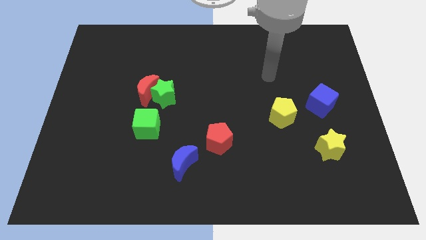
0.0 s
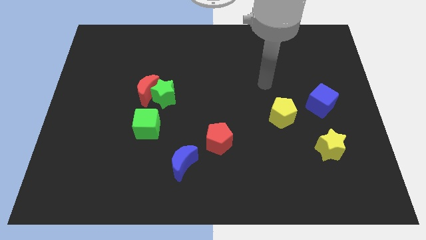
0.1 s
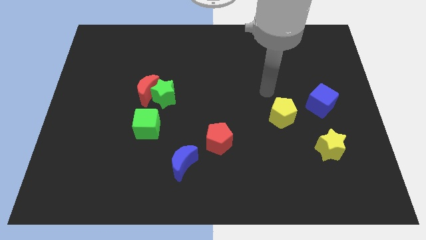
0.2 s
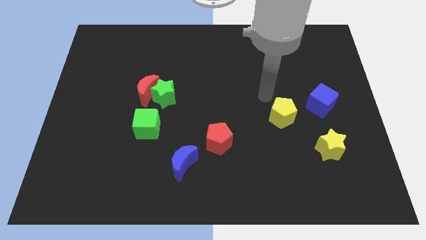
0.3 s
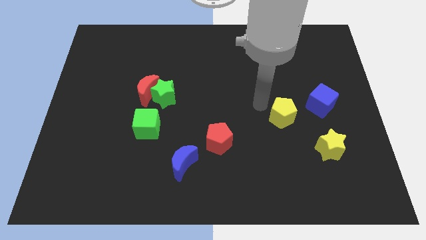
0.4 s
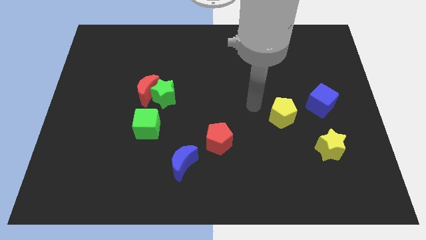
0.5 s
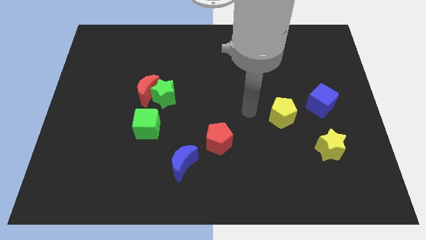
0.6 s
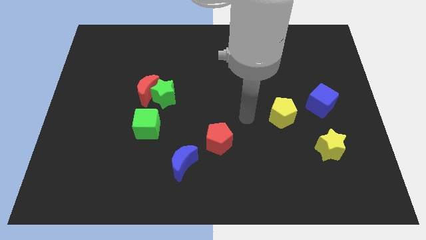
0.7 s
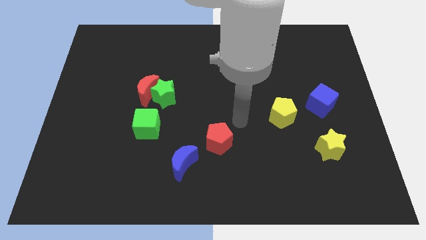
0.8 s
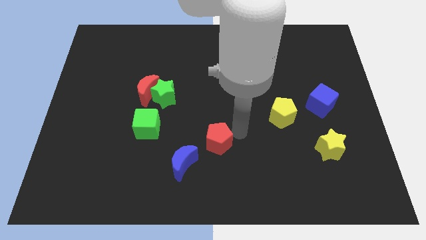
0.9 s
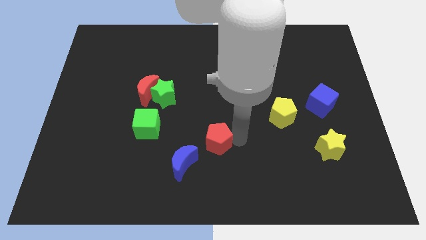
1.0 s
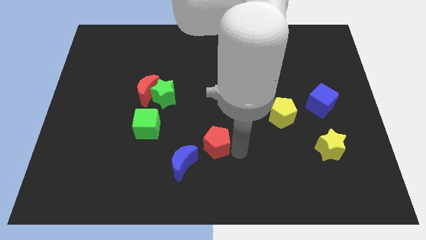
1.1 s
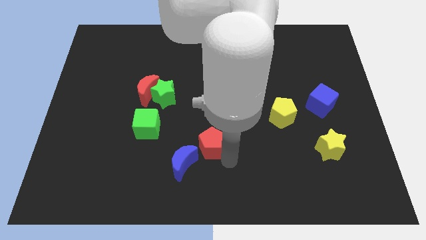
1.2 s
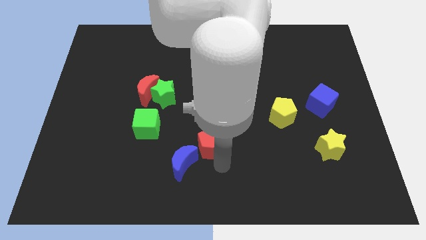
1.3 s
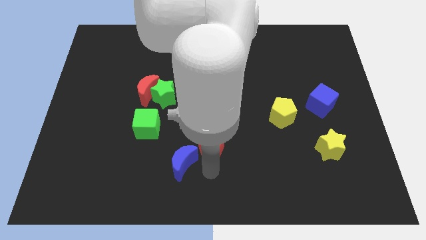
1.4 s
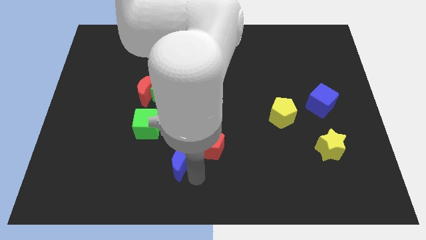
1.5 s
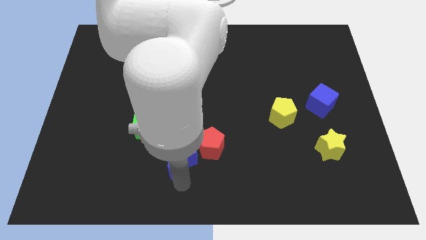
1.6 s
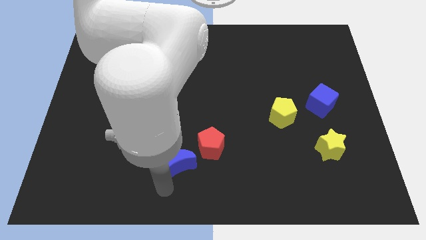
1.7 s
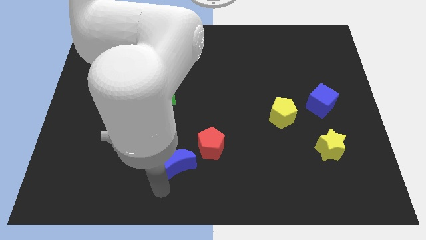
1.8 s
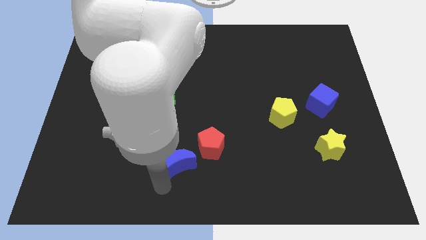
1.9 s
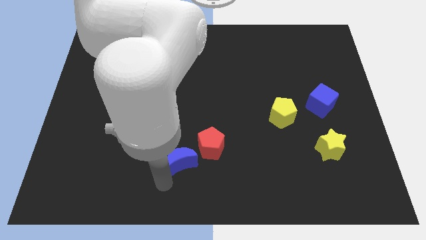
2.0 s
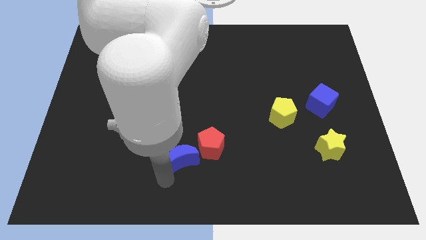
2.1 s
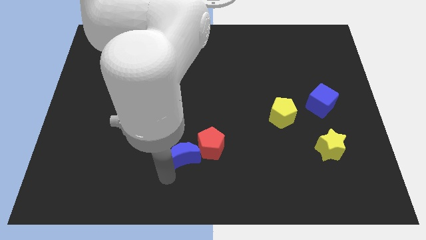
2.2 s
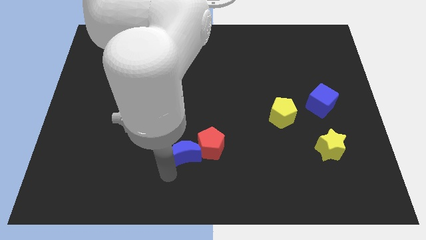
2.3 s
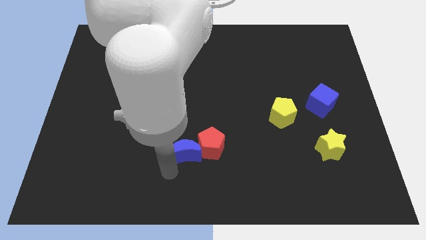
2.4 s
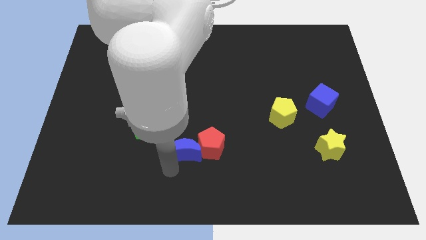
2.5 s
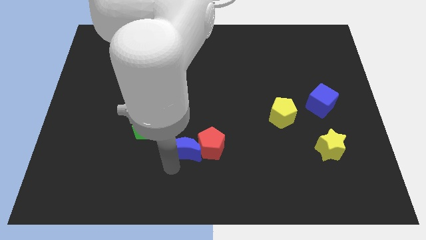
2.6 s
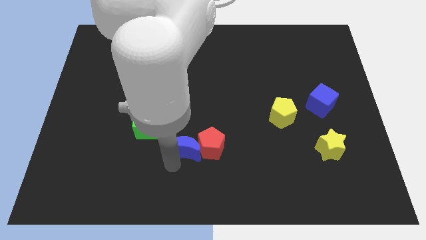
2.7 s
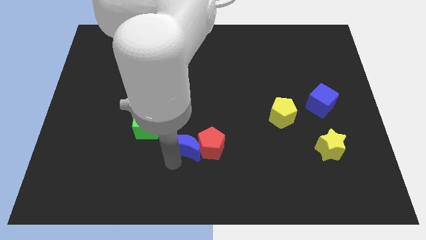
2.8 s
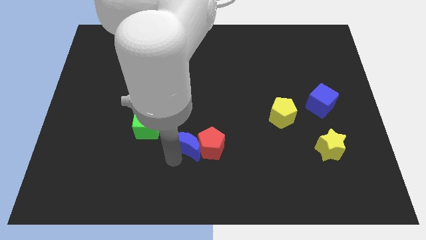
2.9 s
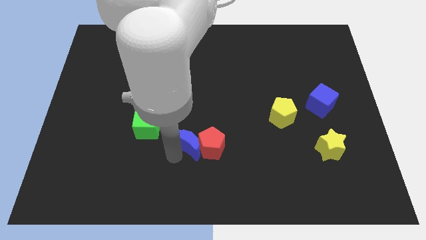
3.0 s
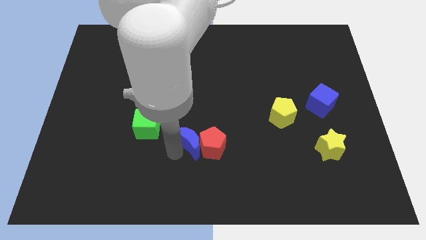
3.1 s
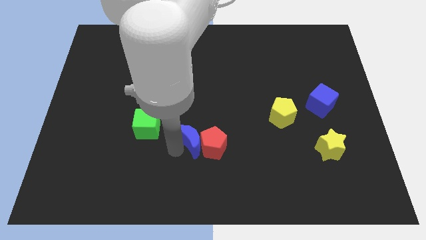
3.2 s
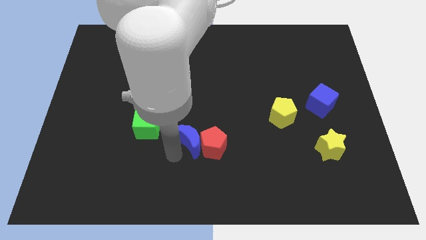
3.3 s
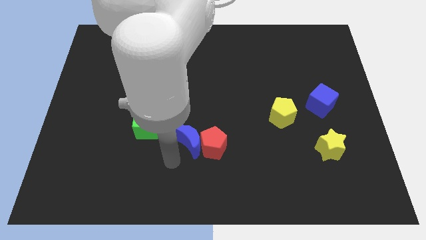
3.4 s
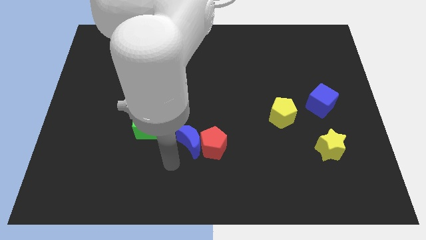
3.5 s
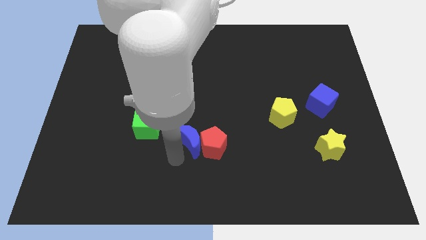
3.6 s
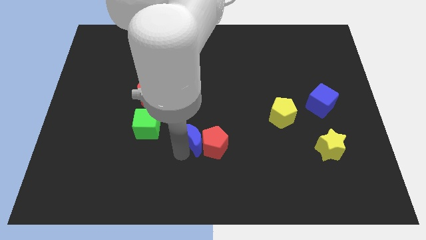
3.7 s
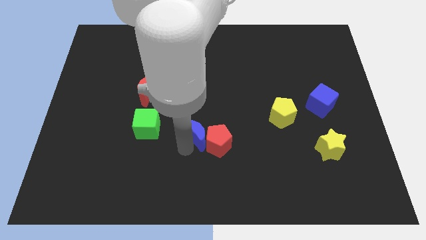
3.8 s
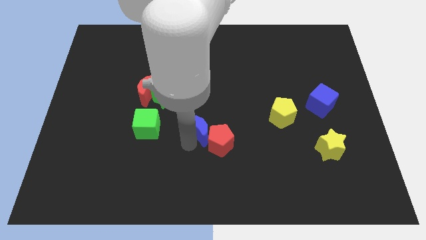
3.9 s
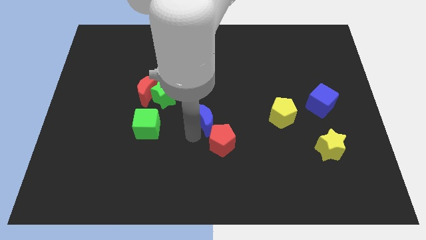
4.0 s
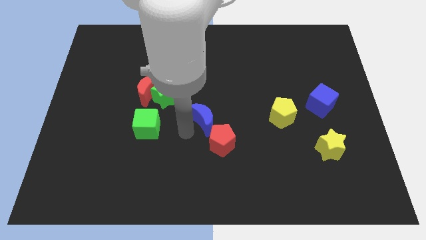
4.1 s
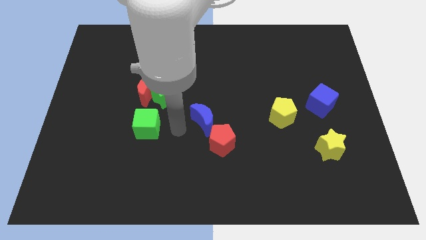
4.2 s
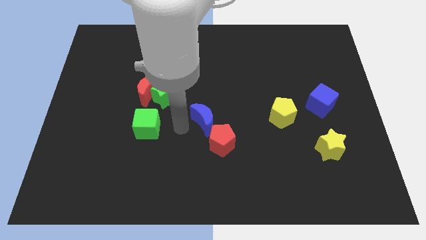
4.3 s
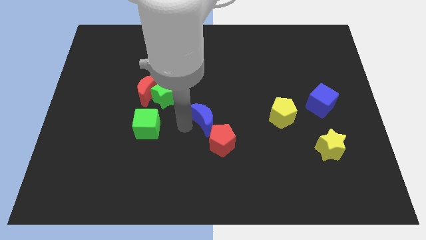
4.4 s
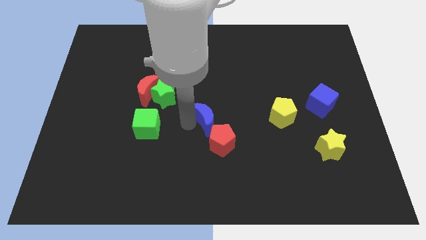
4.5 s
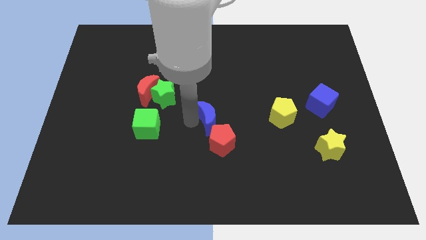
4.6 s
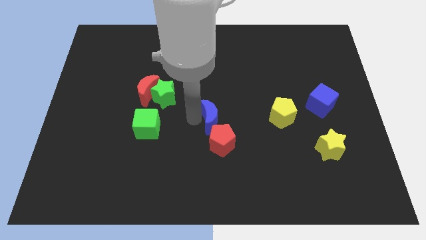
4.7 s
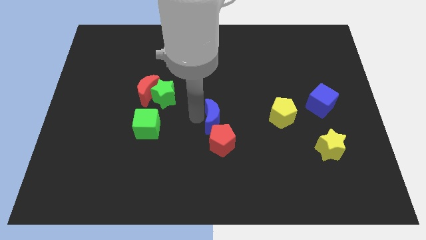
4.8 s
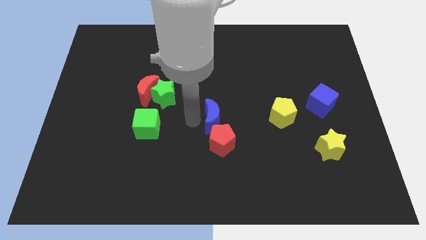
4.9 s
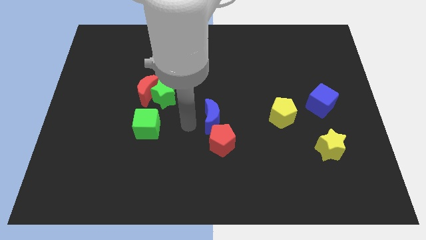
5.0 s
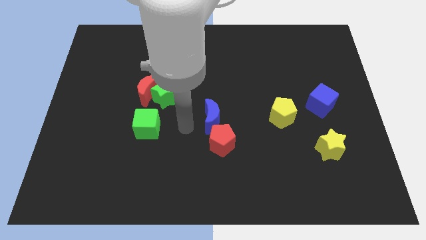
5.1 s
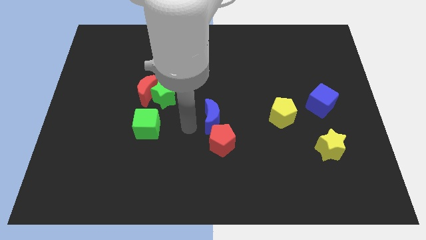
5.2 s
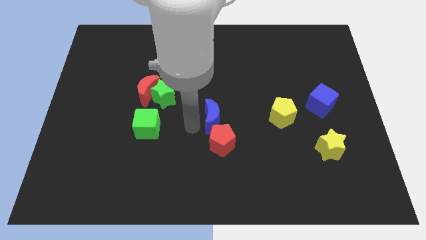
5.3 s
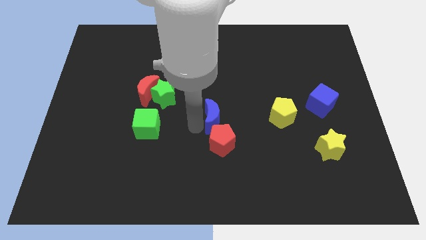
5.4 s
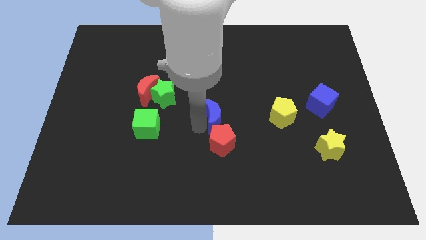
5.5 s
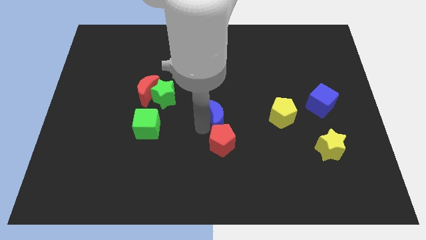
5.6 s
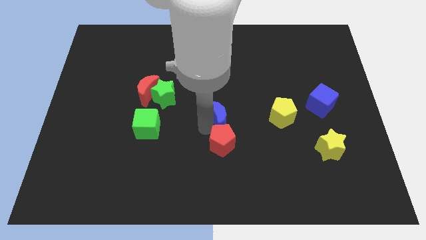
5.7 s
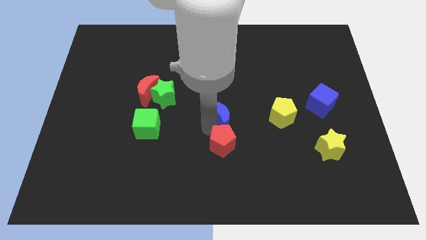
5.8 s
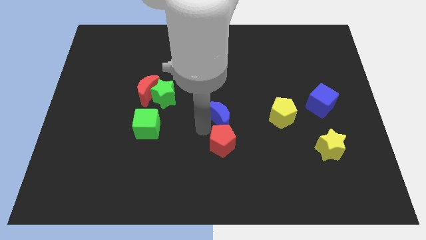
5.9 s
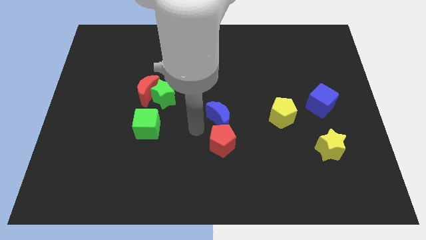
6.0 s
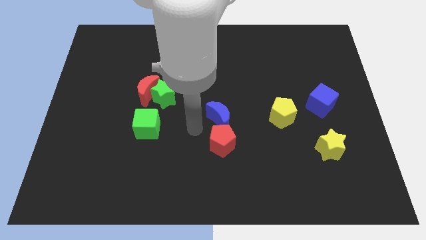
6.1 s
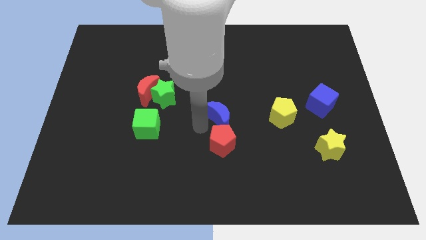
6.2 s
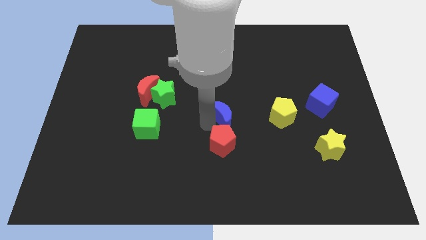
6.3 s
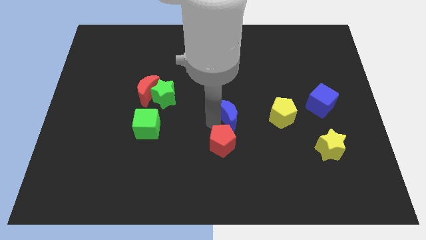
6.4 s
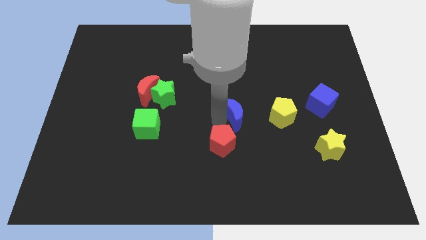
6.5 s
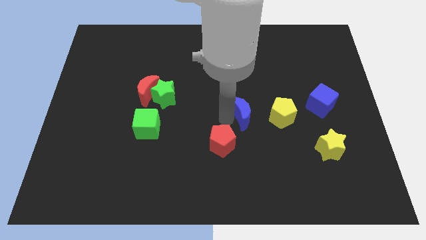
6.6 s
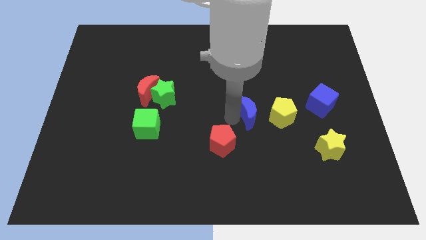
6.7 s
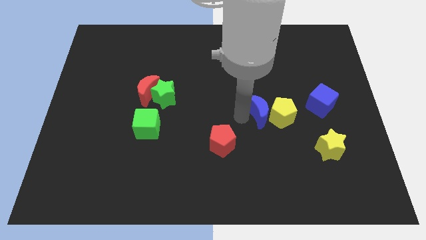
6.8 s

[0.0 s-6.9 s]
put the blue moon to the left of the blue cube

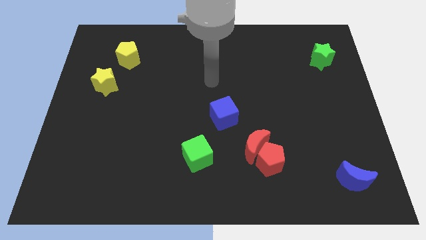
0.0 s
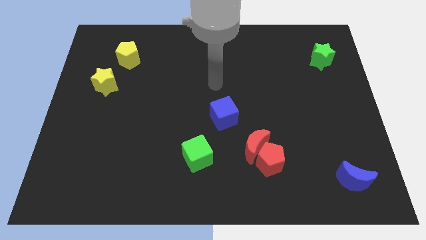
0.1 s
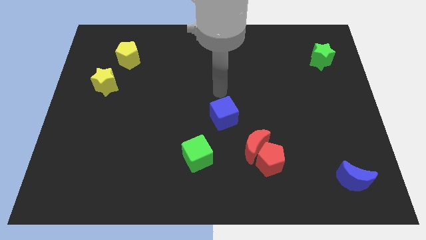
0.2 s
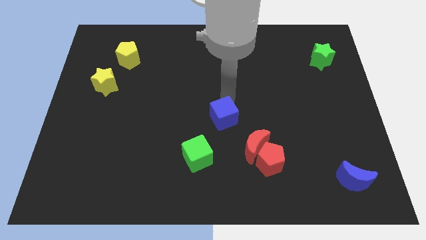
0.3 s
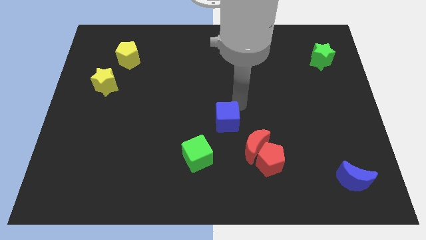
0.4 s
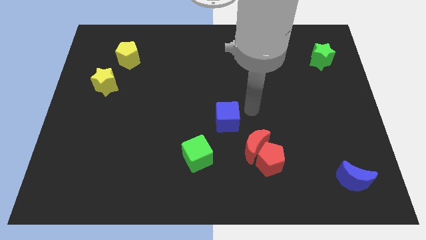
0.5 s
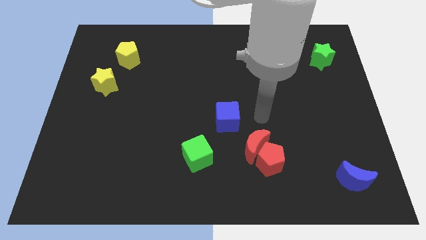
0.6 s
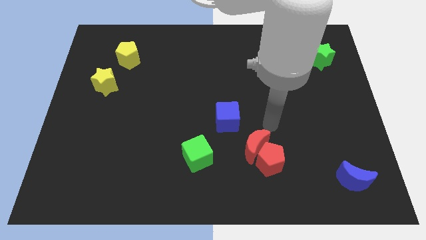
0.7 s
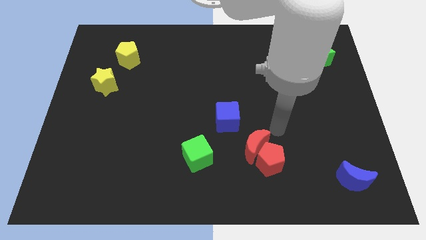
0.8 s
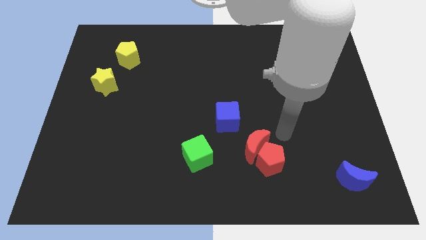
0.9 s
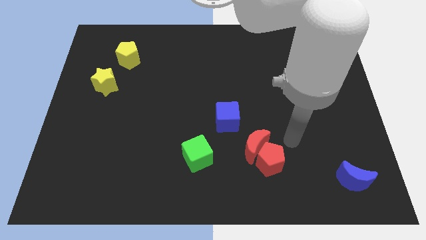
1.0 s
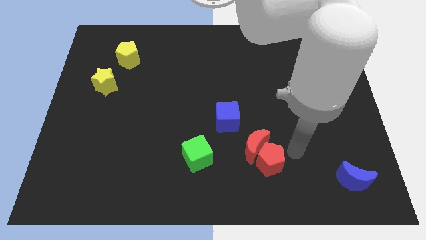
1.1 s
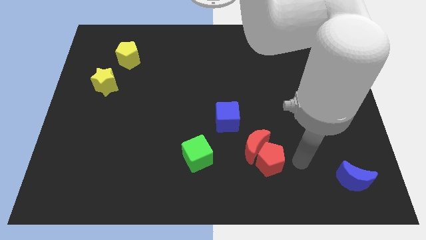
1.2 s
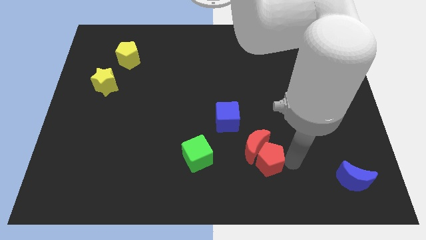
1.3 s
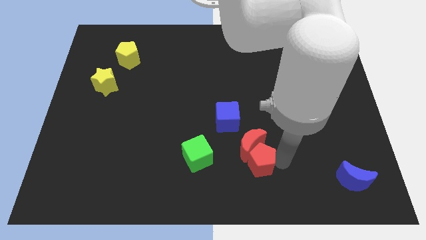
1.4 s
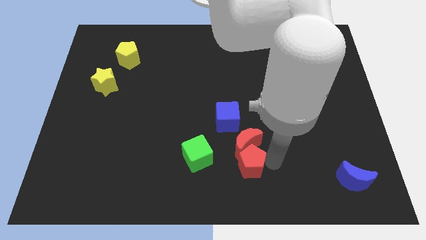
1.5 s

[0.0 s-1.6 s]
slide the red pentagon below the blue cube
